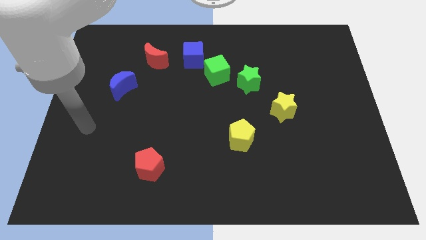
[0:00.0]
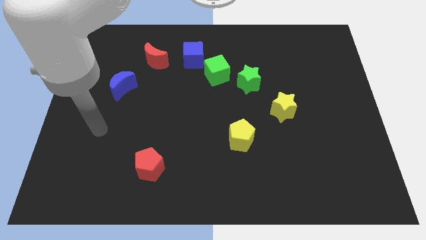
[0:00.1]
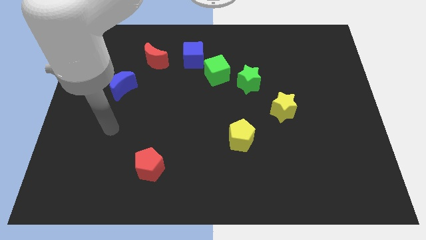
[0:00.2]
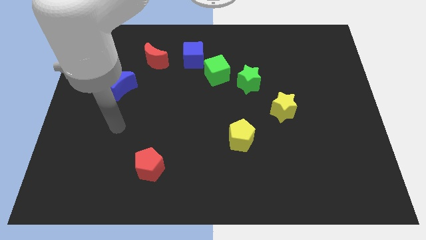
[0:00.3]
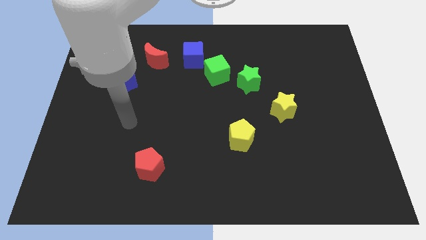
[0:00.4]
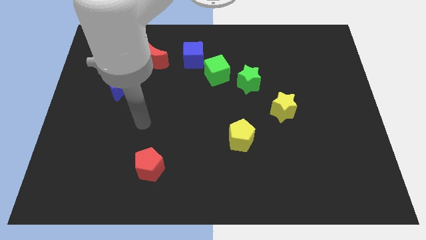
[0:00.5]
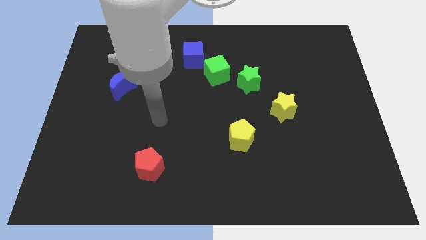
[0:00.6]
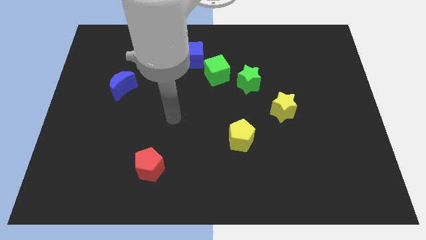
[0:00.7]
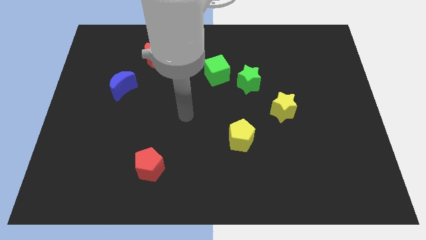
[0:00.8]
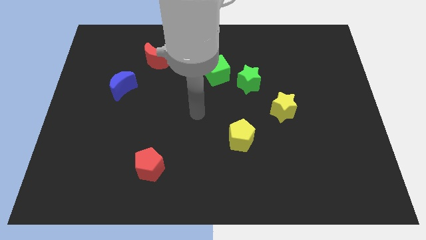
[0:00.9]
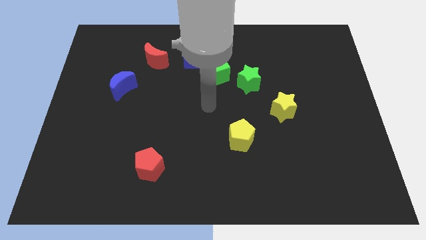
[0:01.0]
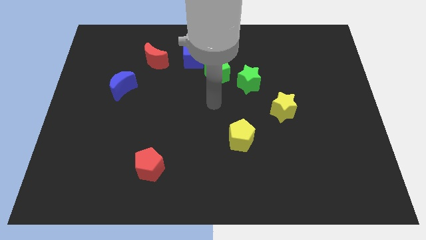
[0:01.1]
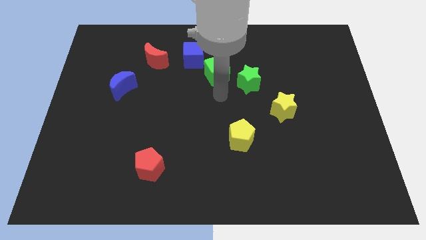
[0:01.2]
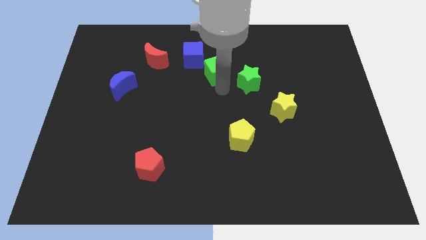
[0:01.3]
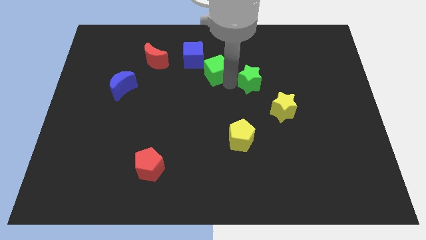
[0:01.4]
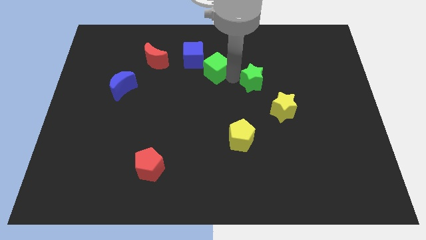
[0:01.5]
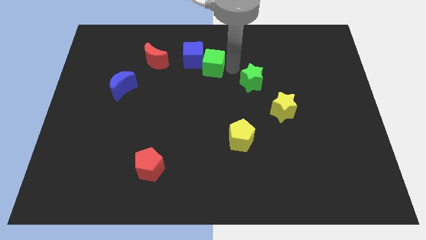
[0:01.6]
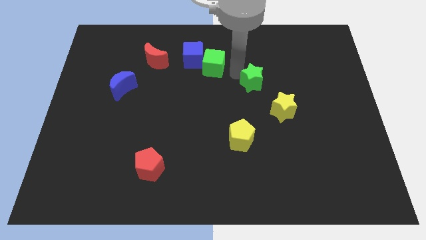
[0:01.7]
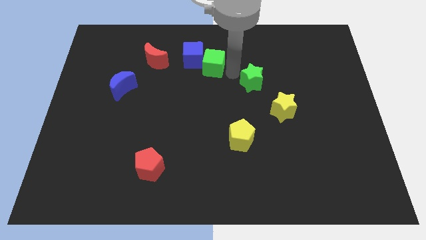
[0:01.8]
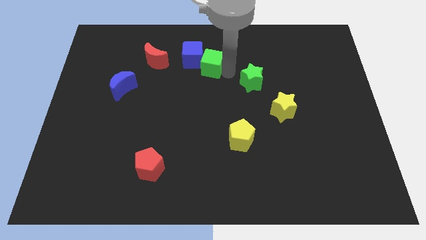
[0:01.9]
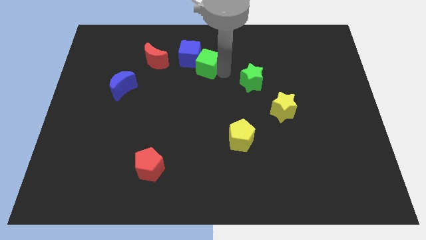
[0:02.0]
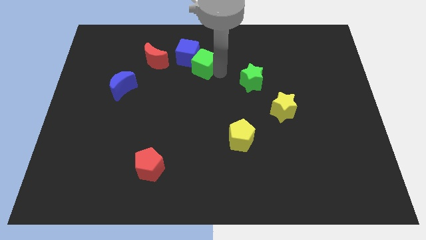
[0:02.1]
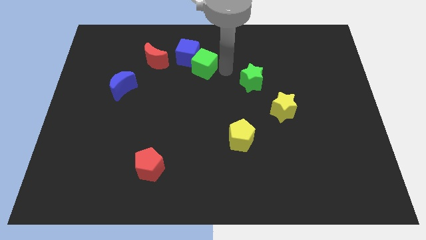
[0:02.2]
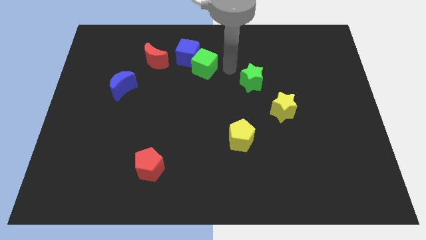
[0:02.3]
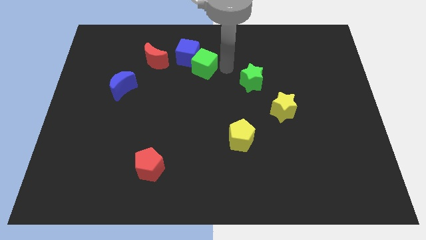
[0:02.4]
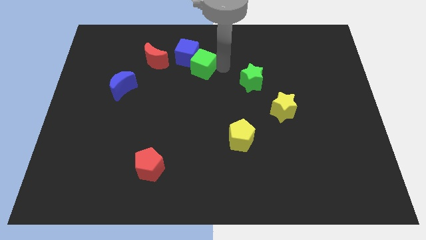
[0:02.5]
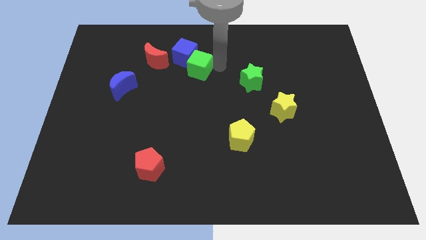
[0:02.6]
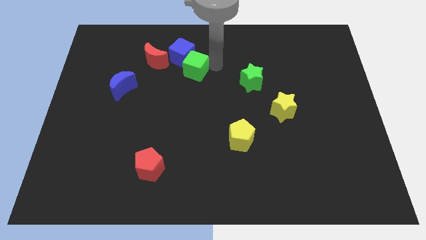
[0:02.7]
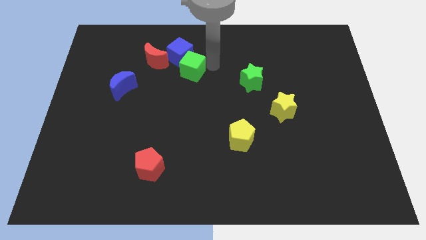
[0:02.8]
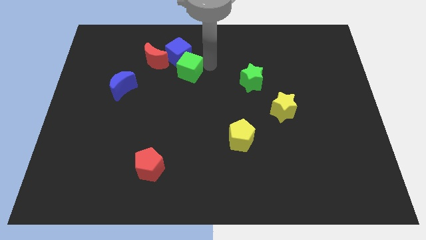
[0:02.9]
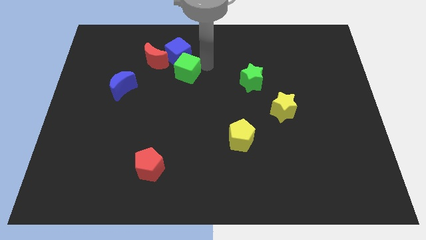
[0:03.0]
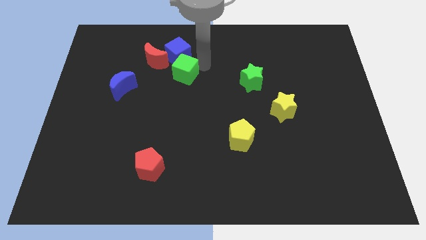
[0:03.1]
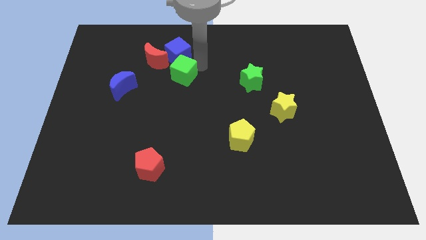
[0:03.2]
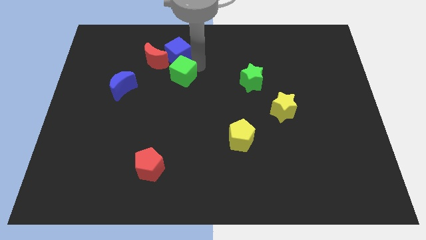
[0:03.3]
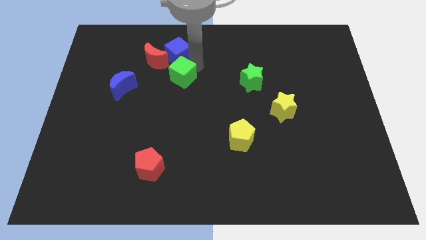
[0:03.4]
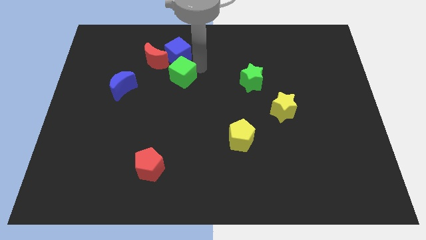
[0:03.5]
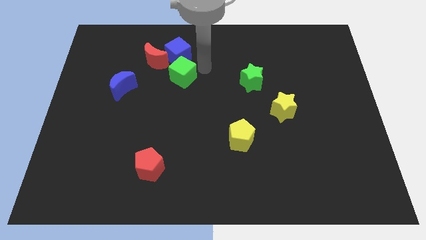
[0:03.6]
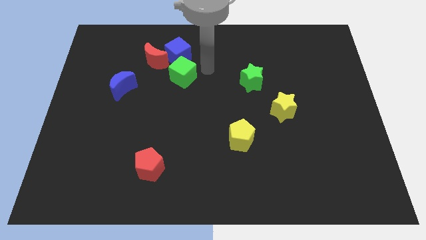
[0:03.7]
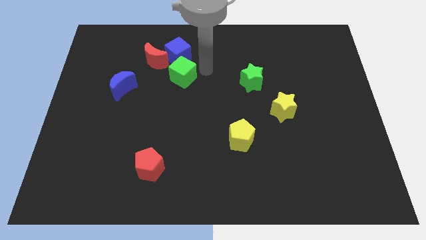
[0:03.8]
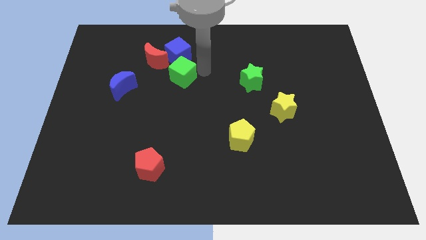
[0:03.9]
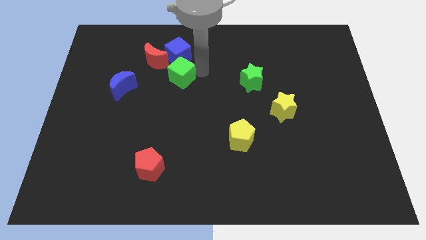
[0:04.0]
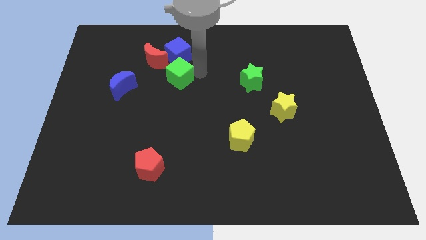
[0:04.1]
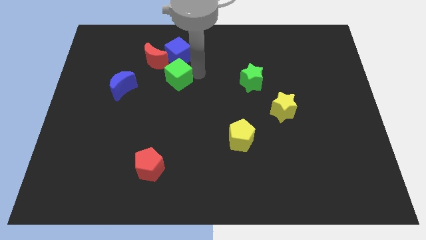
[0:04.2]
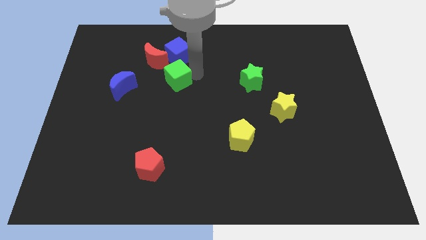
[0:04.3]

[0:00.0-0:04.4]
pull the green cube apart from the blue cube and green star

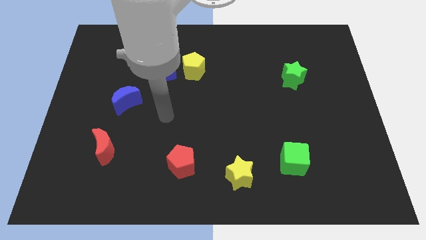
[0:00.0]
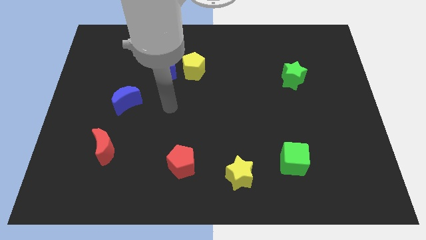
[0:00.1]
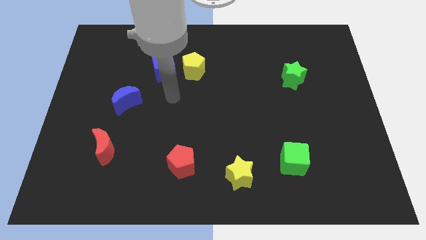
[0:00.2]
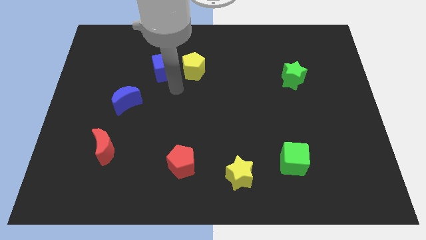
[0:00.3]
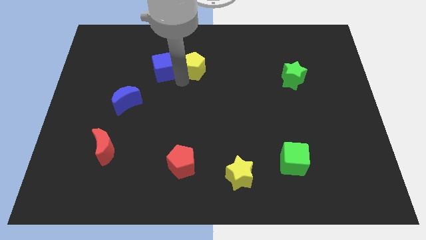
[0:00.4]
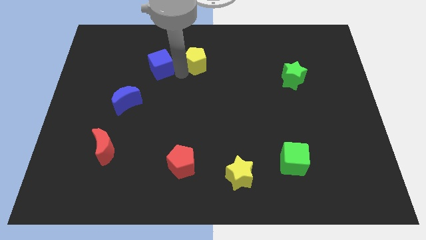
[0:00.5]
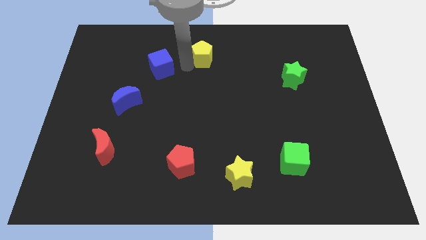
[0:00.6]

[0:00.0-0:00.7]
pull the blue cube apart from the yellow pentagon

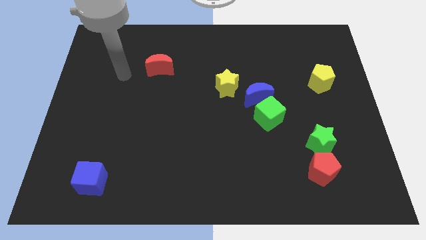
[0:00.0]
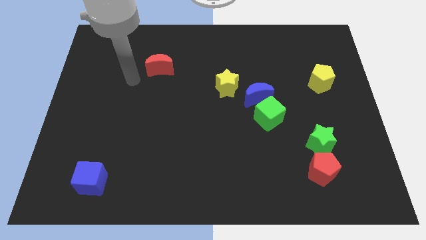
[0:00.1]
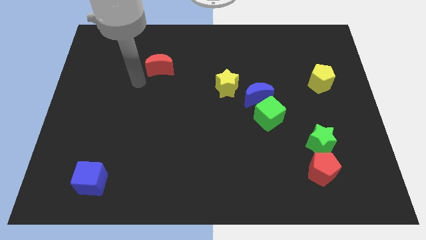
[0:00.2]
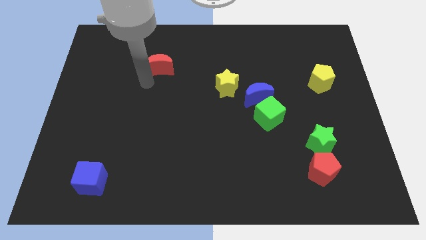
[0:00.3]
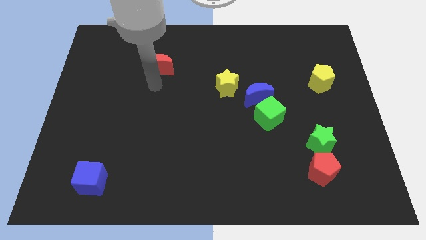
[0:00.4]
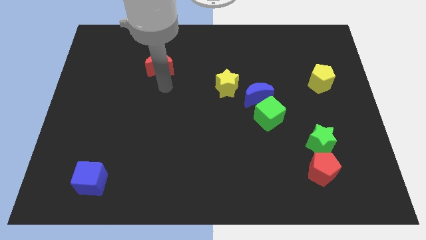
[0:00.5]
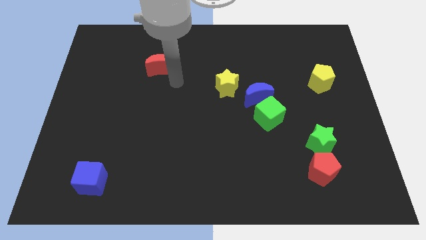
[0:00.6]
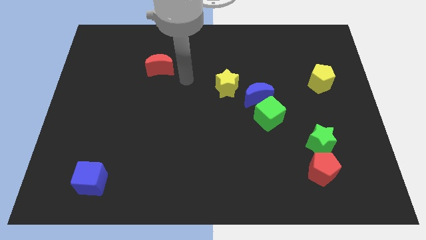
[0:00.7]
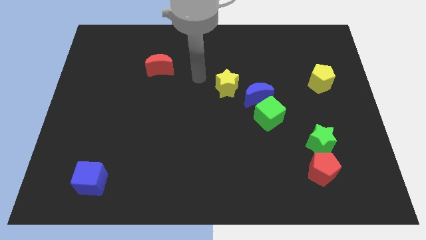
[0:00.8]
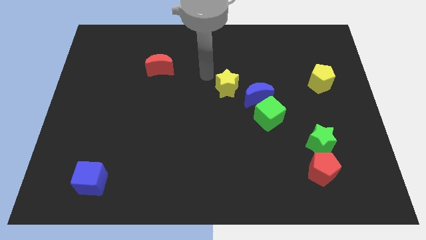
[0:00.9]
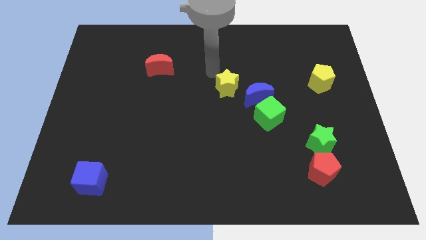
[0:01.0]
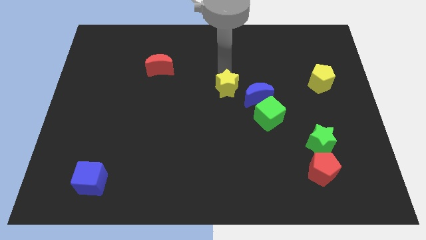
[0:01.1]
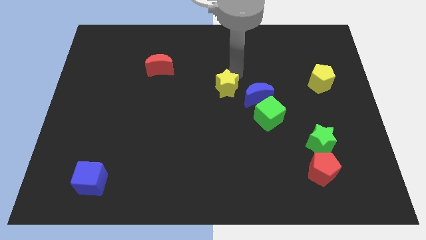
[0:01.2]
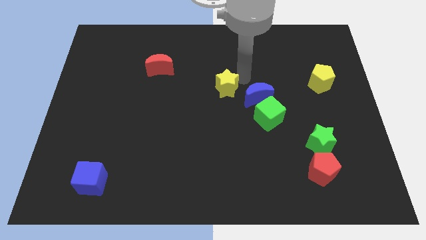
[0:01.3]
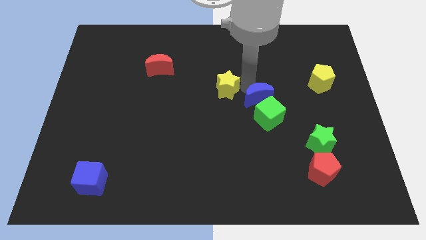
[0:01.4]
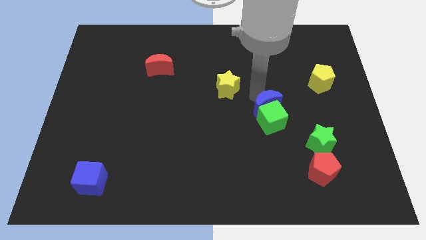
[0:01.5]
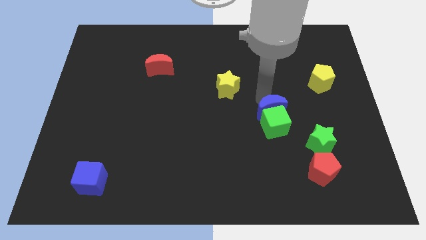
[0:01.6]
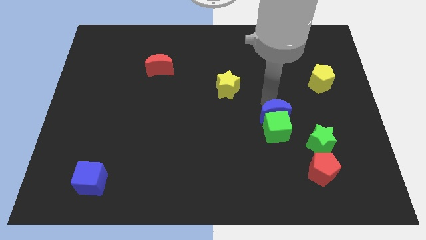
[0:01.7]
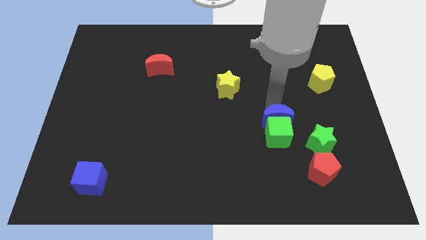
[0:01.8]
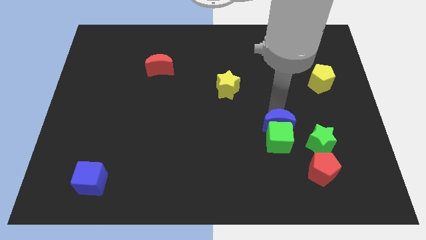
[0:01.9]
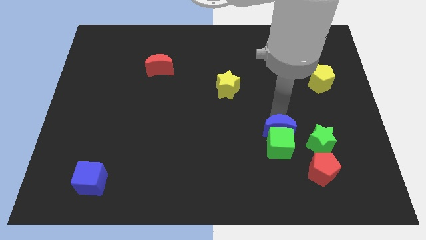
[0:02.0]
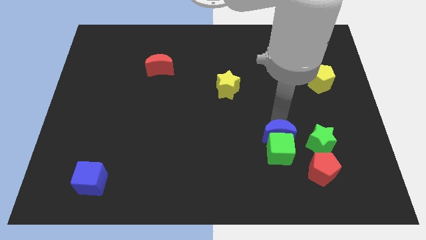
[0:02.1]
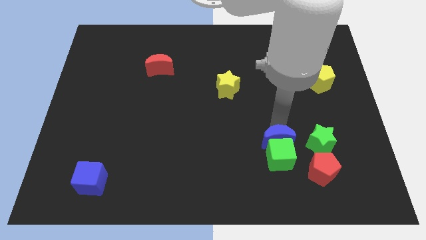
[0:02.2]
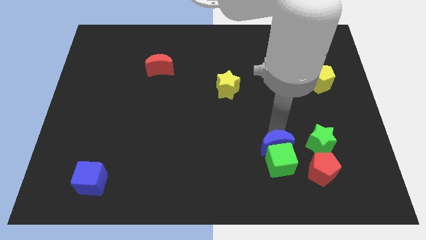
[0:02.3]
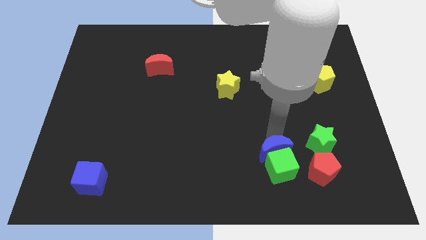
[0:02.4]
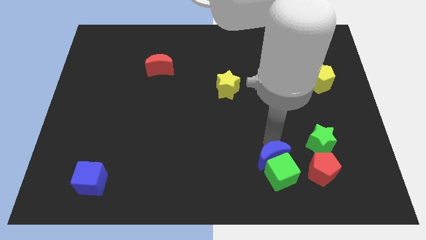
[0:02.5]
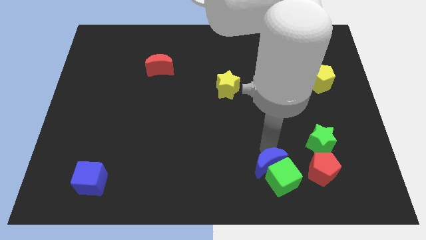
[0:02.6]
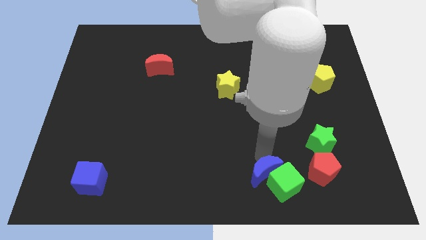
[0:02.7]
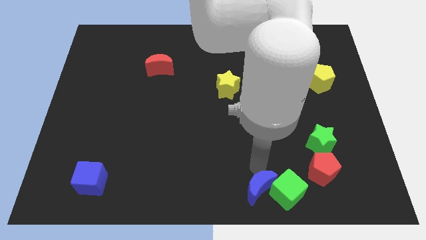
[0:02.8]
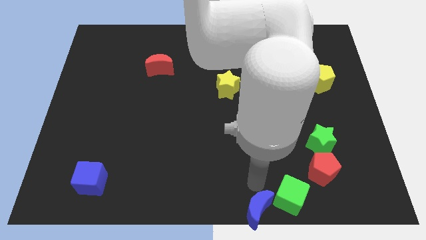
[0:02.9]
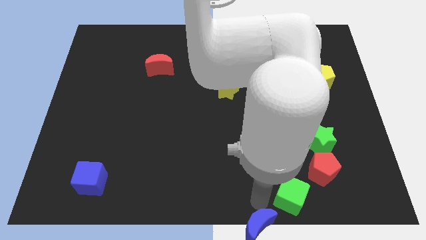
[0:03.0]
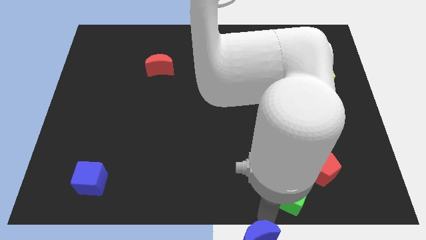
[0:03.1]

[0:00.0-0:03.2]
pull the green cube apart from the blue moon

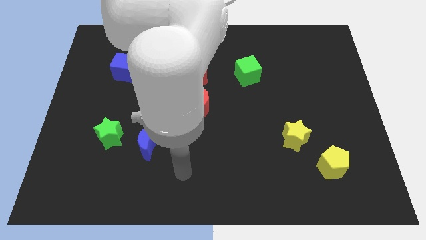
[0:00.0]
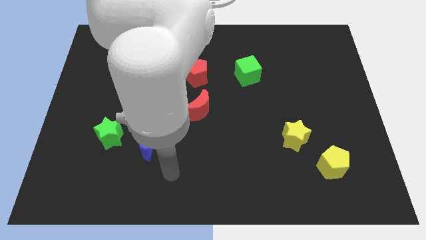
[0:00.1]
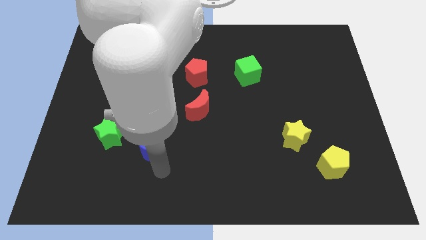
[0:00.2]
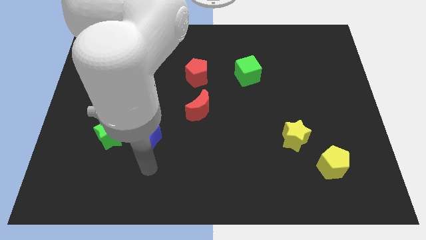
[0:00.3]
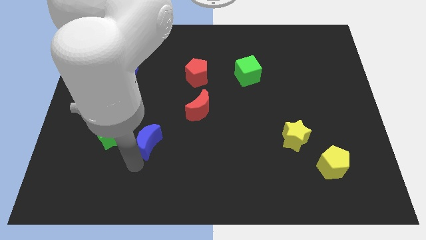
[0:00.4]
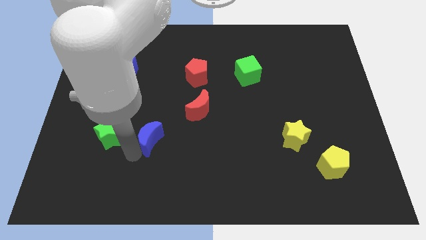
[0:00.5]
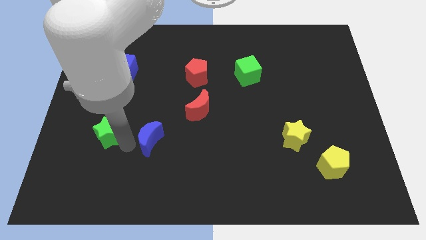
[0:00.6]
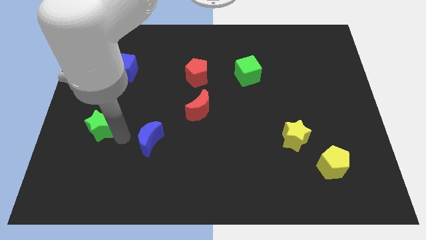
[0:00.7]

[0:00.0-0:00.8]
move the blue moon away from the green star

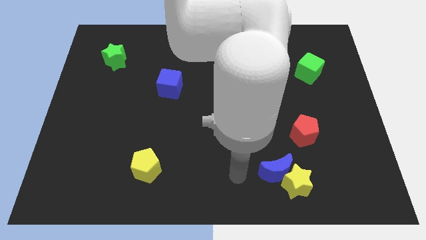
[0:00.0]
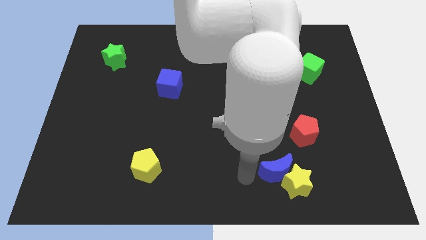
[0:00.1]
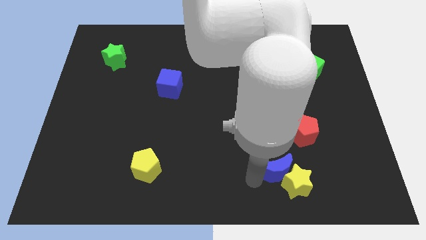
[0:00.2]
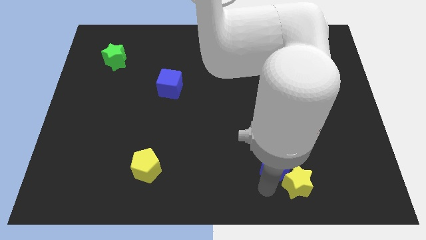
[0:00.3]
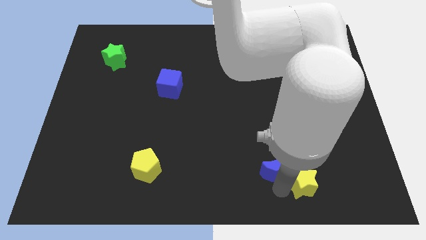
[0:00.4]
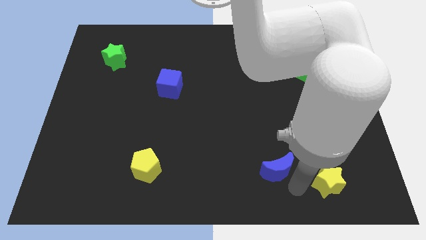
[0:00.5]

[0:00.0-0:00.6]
pull the blue moon apart from the yellow star
